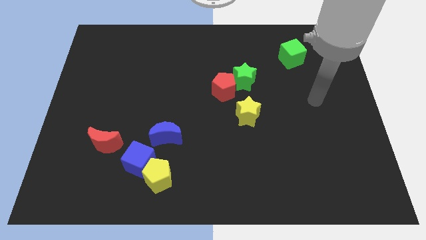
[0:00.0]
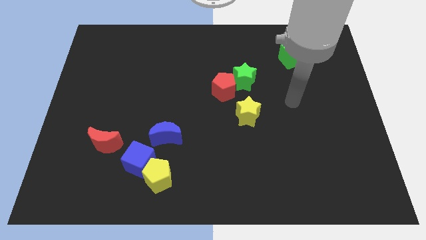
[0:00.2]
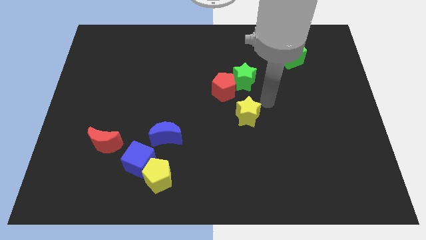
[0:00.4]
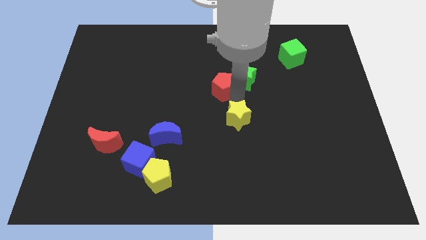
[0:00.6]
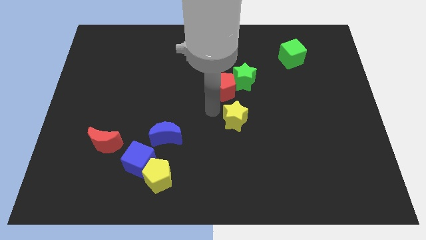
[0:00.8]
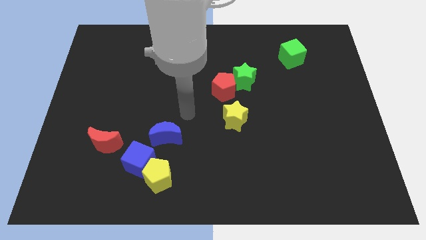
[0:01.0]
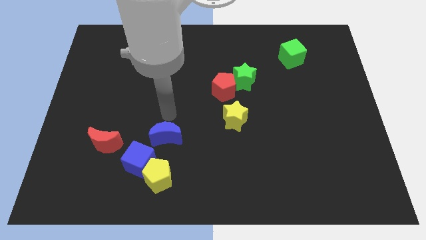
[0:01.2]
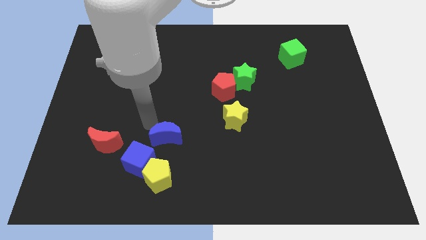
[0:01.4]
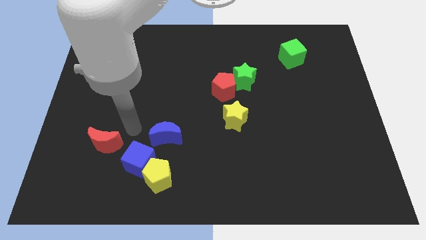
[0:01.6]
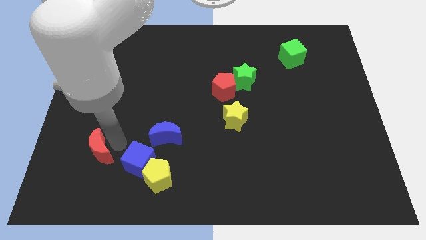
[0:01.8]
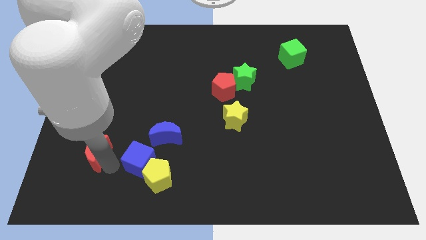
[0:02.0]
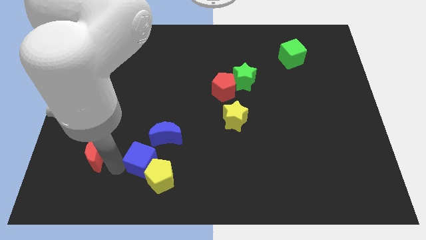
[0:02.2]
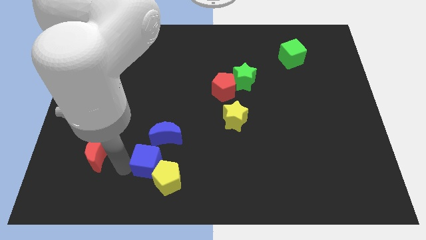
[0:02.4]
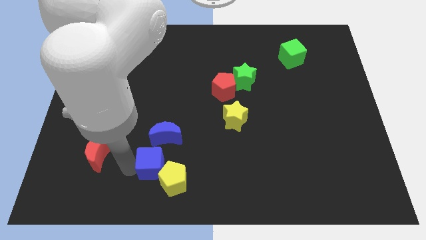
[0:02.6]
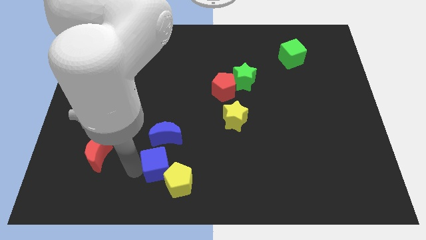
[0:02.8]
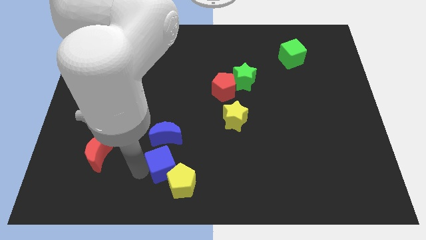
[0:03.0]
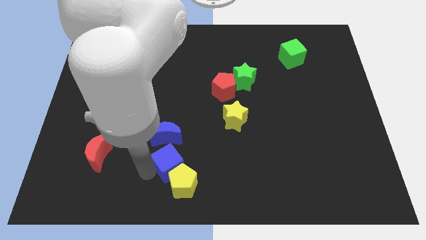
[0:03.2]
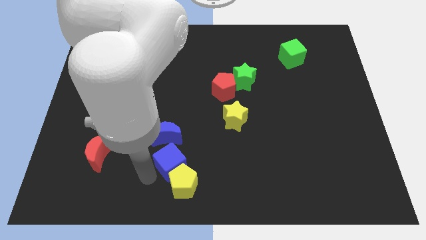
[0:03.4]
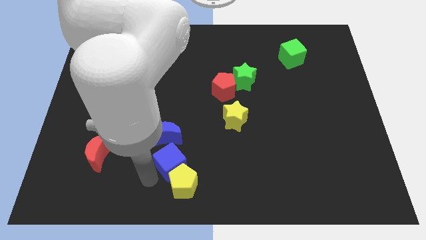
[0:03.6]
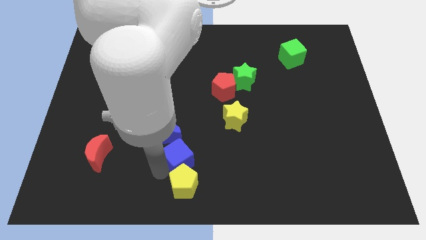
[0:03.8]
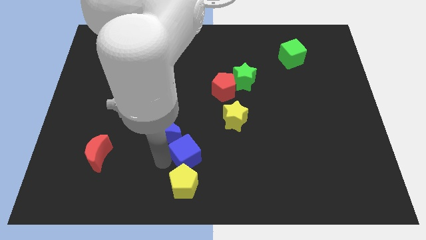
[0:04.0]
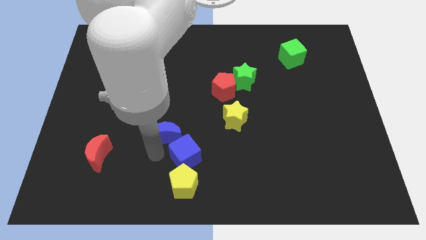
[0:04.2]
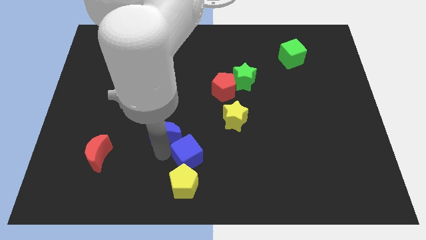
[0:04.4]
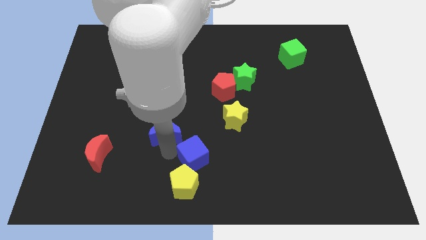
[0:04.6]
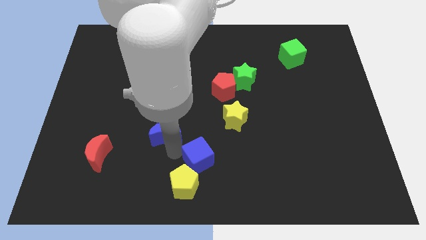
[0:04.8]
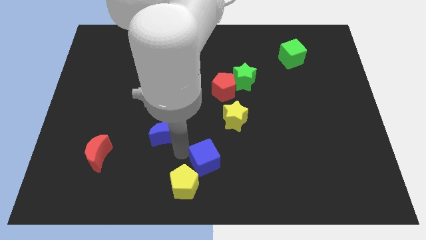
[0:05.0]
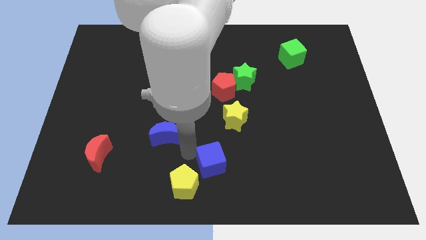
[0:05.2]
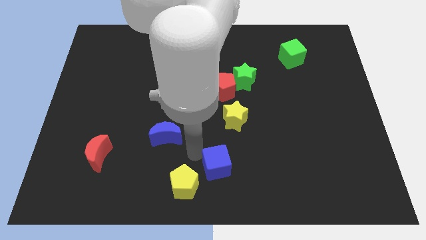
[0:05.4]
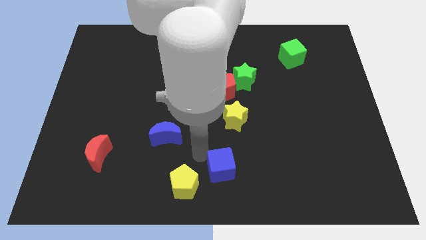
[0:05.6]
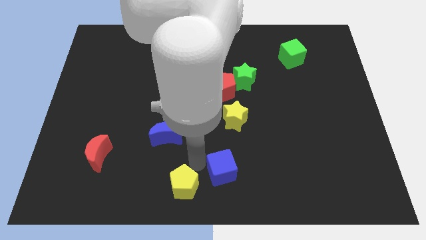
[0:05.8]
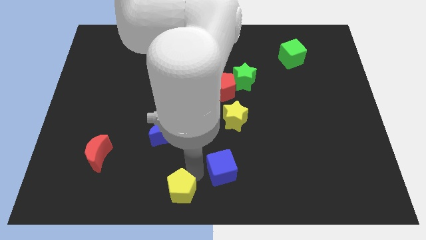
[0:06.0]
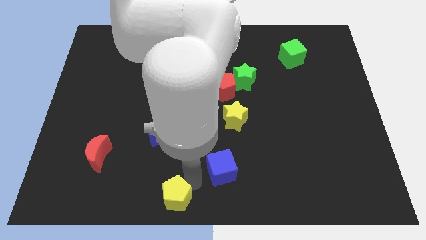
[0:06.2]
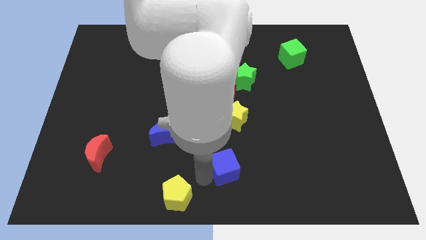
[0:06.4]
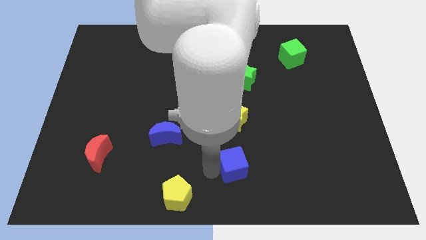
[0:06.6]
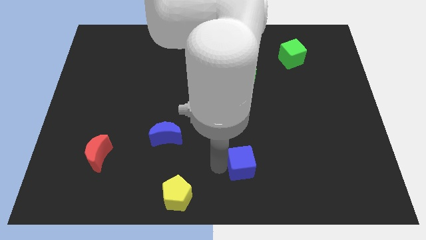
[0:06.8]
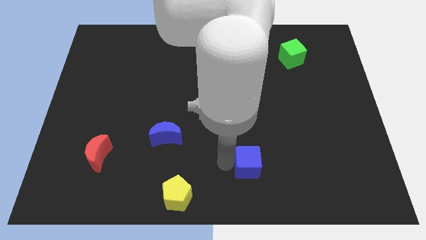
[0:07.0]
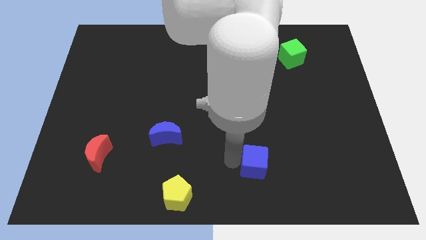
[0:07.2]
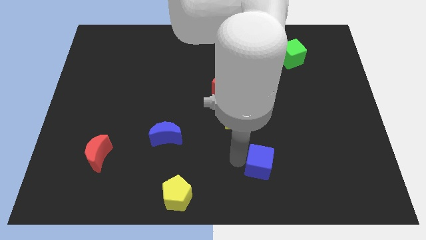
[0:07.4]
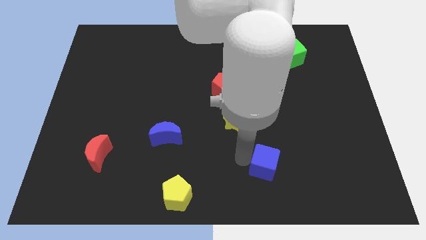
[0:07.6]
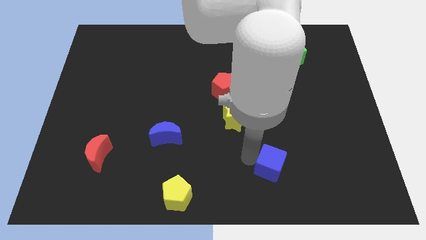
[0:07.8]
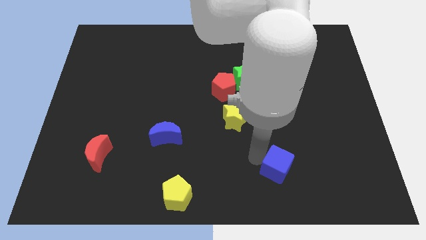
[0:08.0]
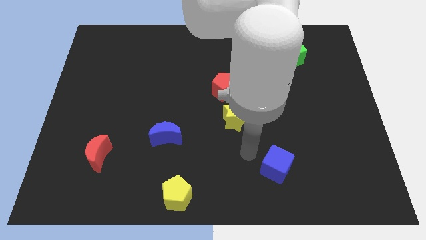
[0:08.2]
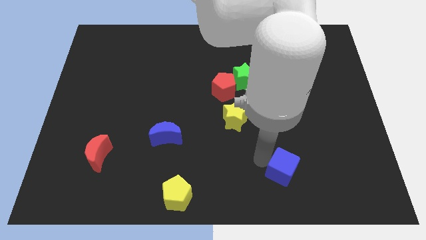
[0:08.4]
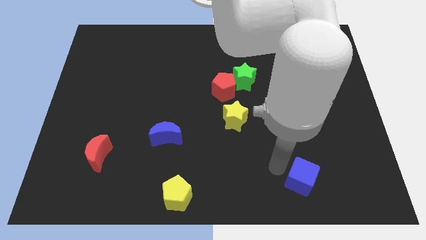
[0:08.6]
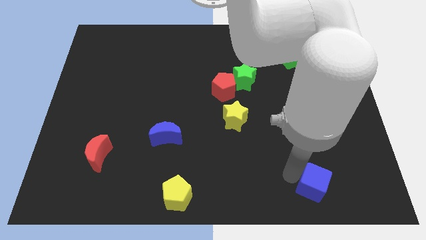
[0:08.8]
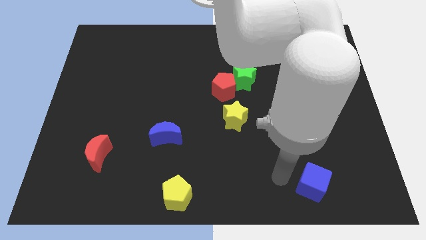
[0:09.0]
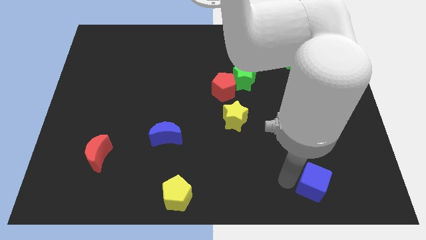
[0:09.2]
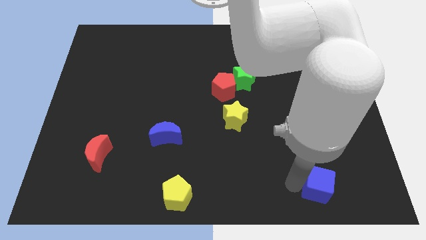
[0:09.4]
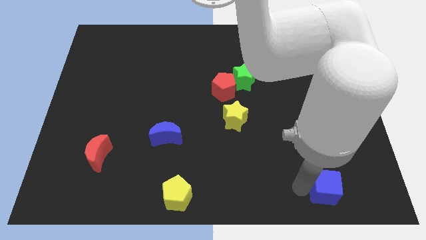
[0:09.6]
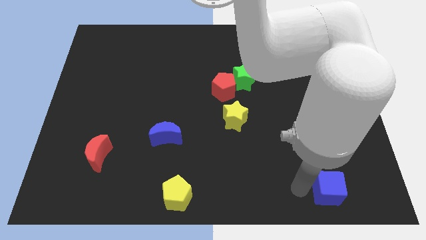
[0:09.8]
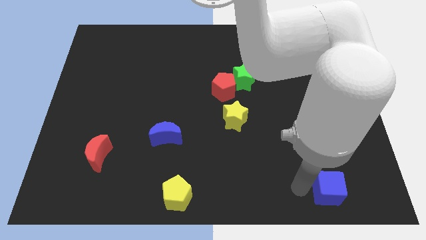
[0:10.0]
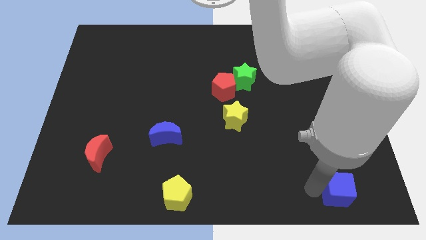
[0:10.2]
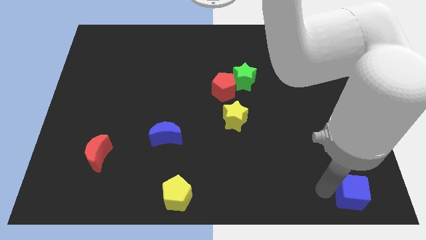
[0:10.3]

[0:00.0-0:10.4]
slide the blue cube to the bottom right of the board
